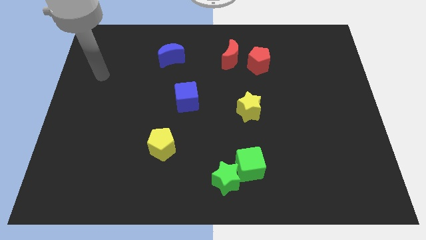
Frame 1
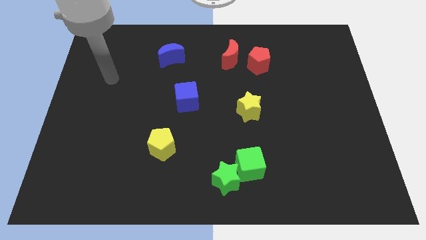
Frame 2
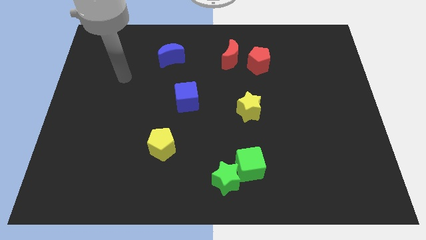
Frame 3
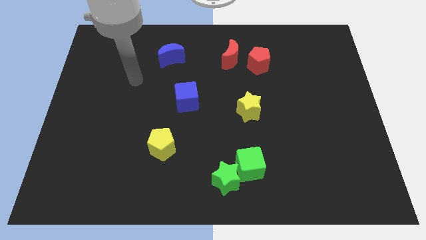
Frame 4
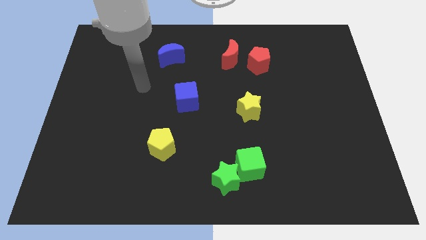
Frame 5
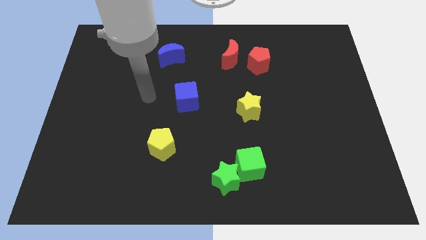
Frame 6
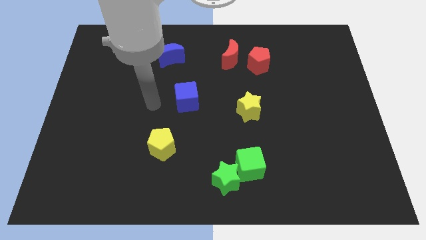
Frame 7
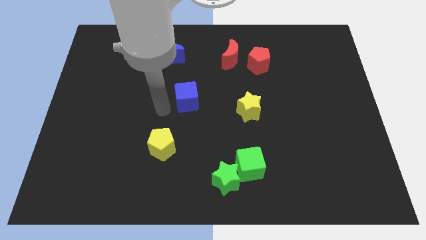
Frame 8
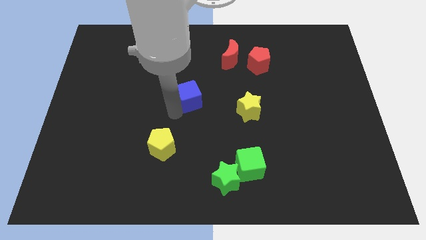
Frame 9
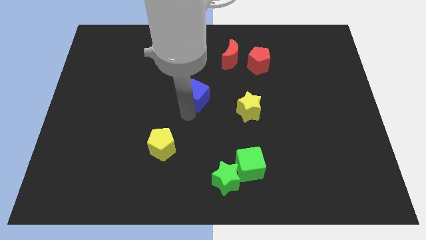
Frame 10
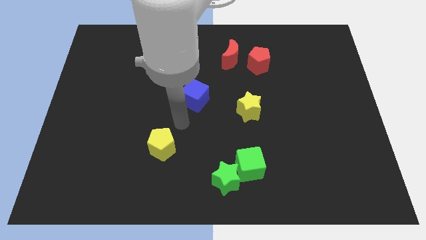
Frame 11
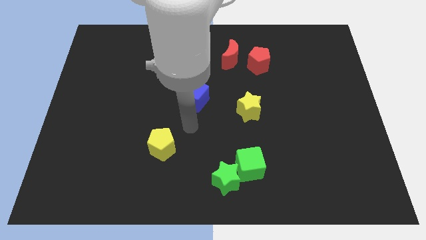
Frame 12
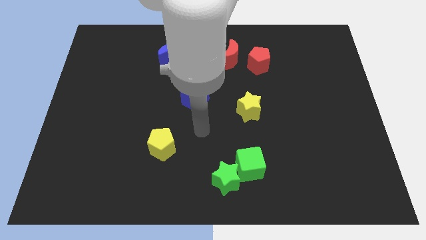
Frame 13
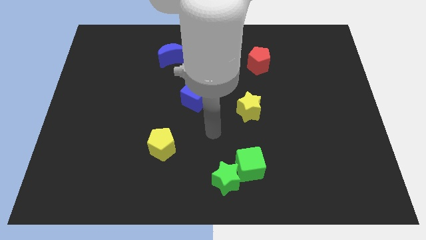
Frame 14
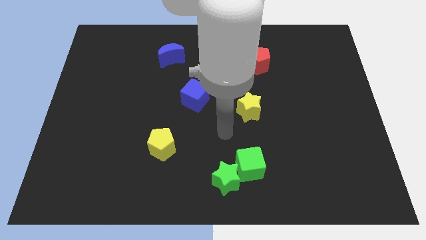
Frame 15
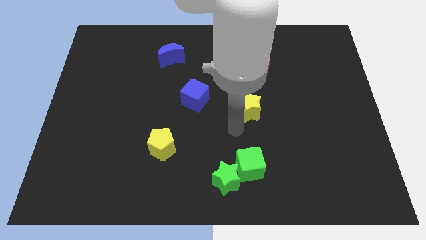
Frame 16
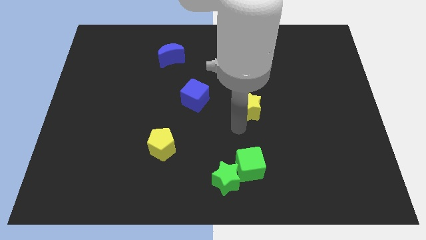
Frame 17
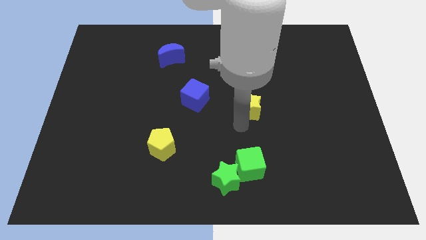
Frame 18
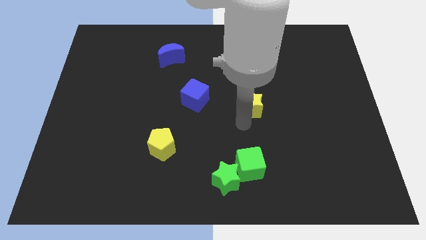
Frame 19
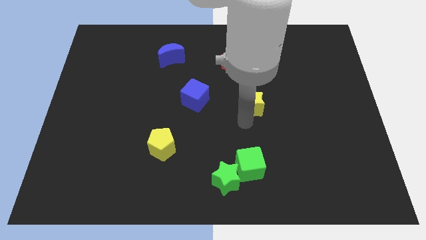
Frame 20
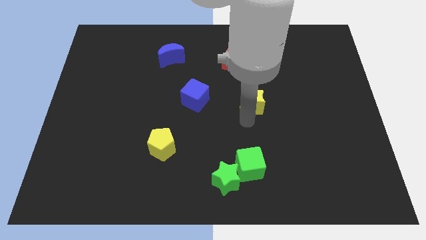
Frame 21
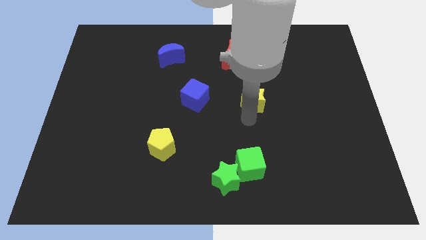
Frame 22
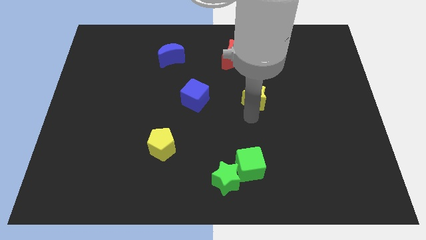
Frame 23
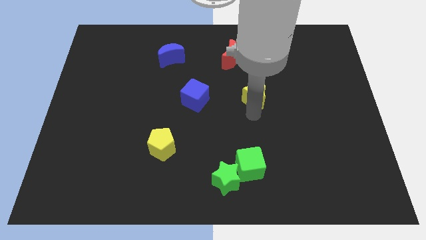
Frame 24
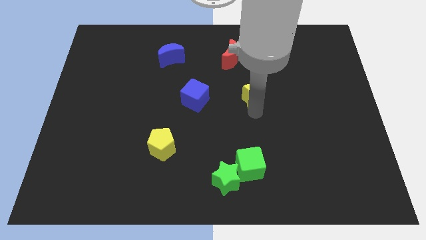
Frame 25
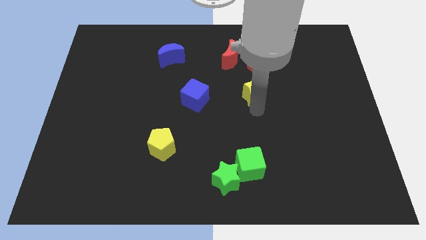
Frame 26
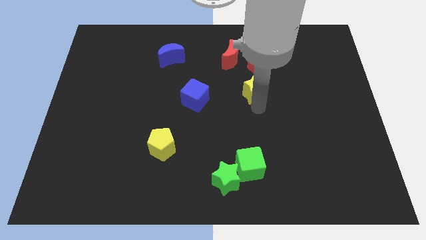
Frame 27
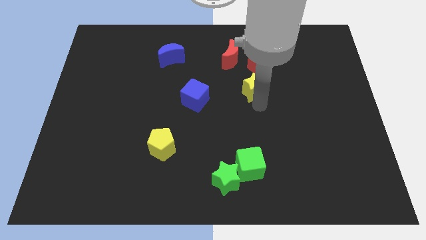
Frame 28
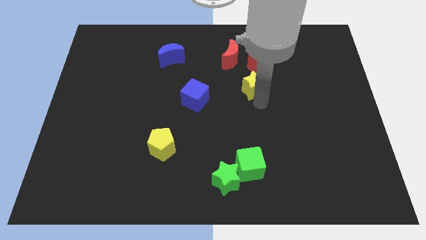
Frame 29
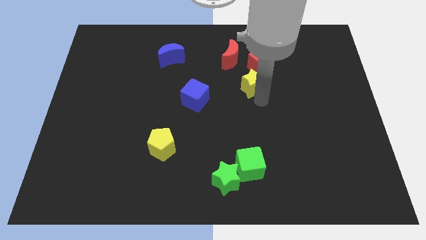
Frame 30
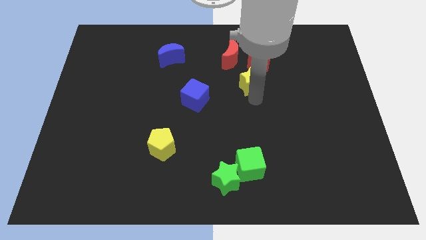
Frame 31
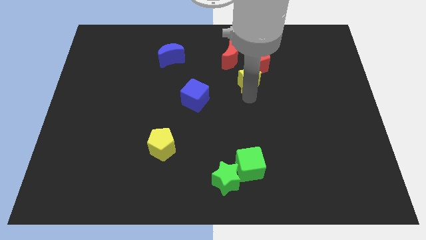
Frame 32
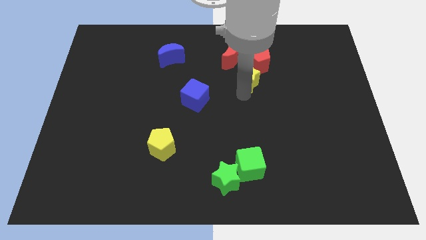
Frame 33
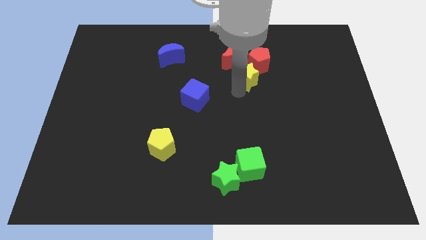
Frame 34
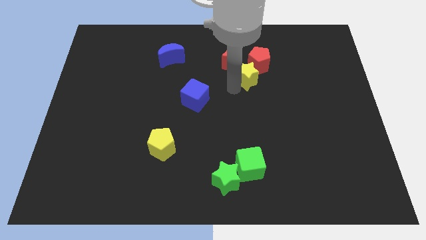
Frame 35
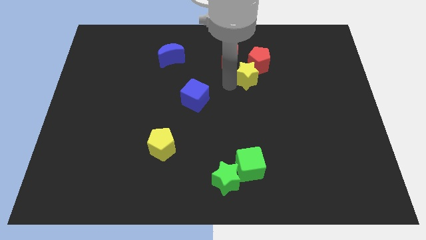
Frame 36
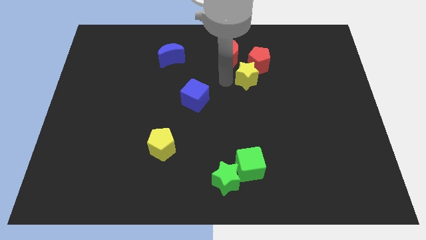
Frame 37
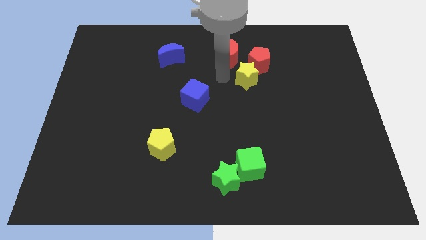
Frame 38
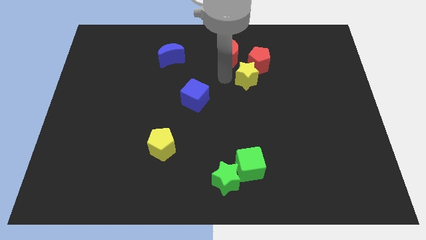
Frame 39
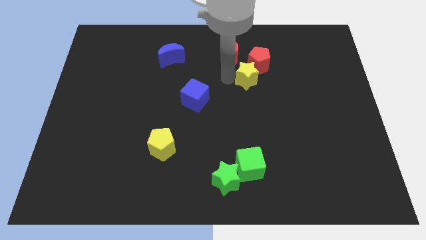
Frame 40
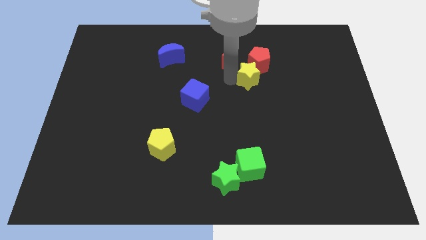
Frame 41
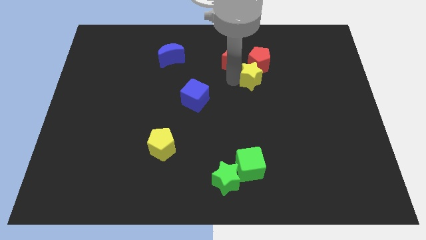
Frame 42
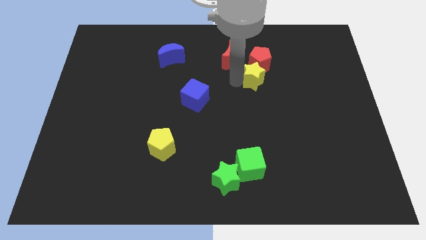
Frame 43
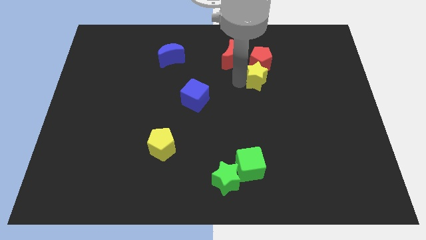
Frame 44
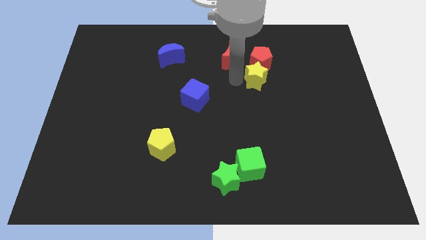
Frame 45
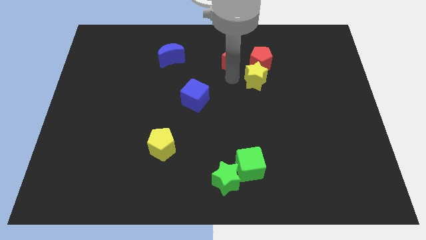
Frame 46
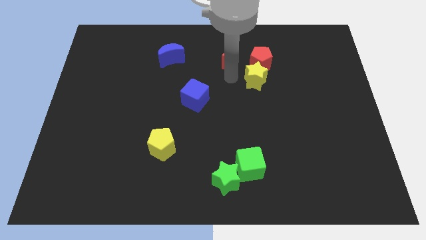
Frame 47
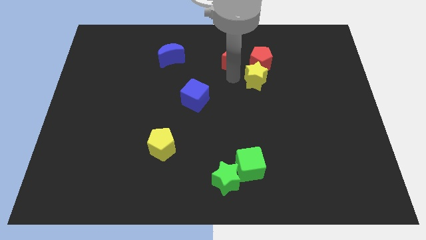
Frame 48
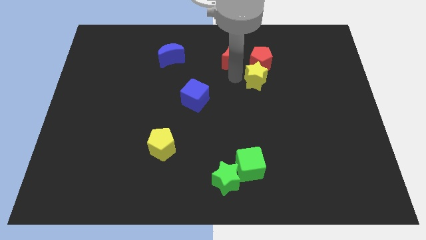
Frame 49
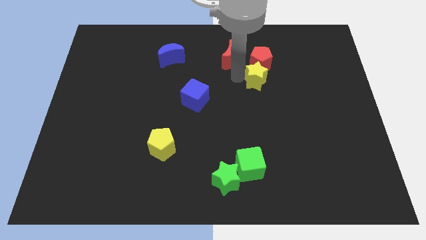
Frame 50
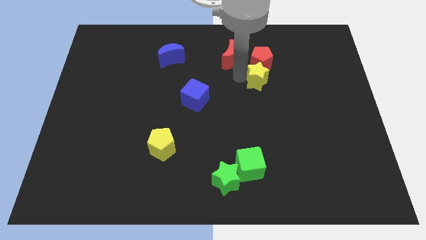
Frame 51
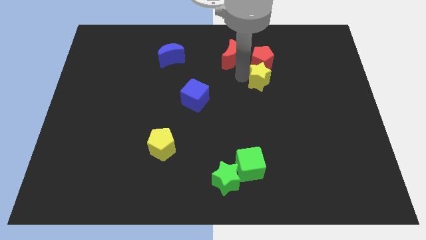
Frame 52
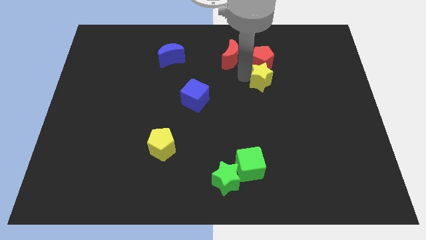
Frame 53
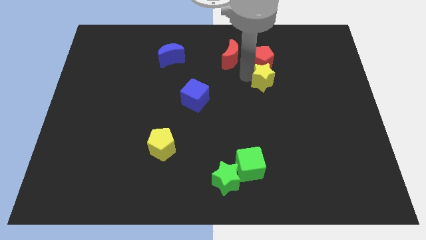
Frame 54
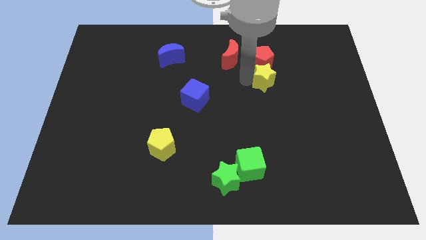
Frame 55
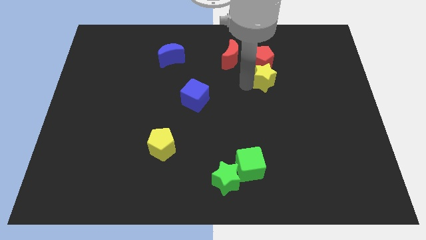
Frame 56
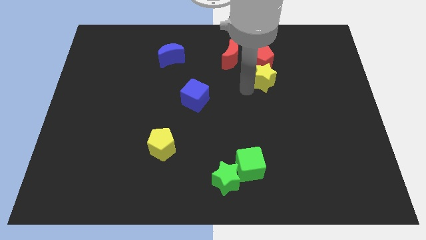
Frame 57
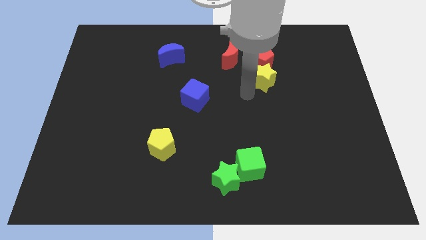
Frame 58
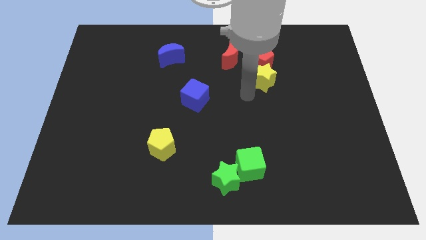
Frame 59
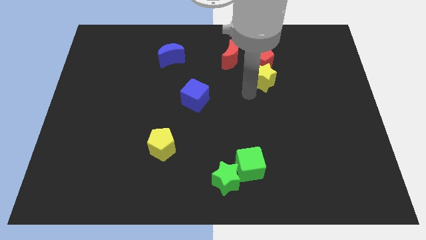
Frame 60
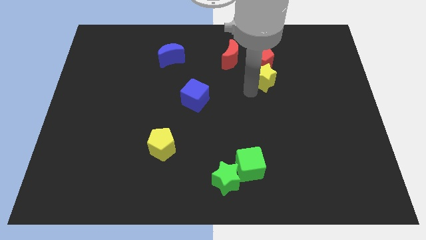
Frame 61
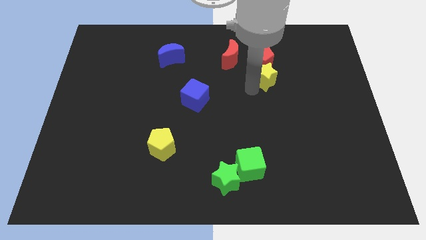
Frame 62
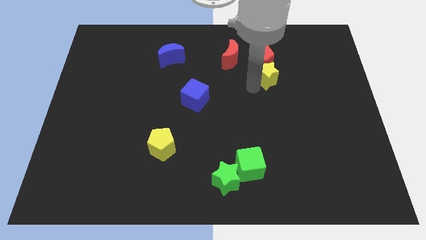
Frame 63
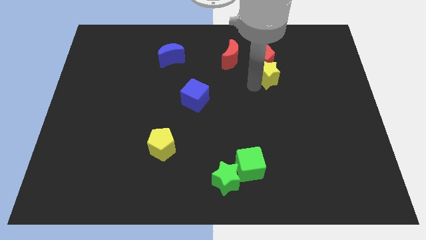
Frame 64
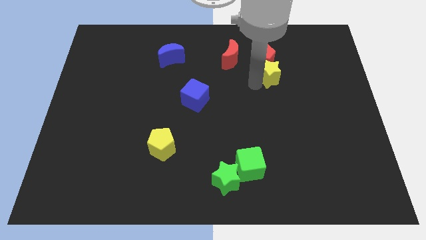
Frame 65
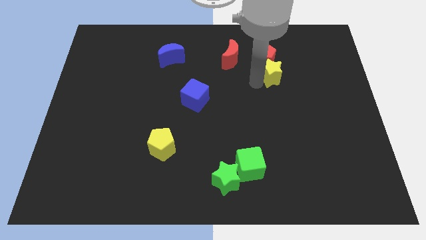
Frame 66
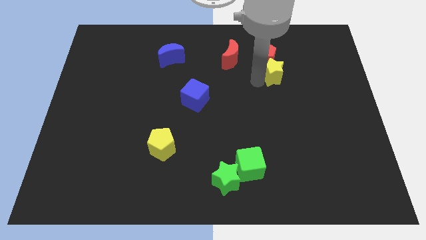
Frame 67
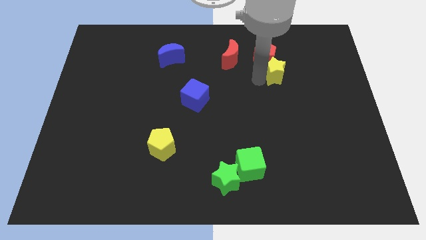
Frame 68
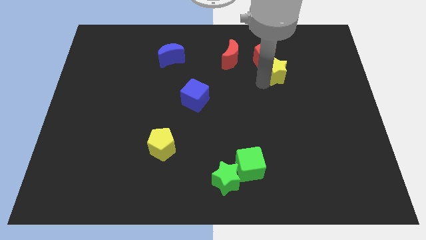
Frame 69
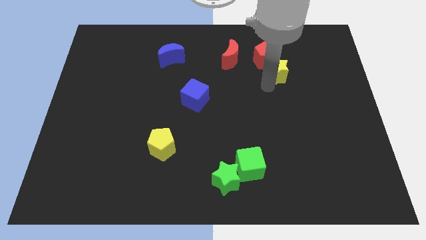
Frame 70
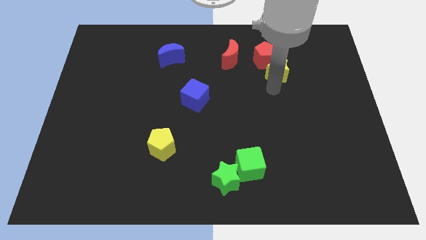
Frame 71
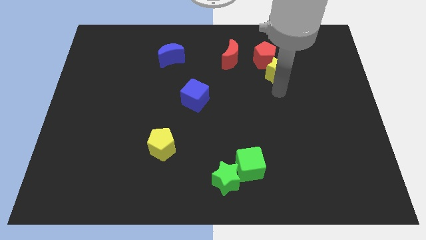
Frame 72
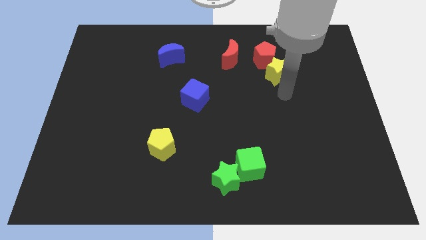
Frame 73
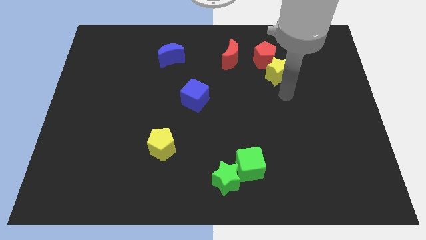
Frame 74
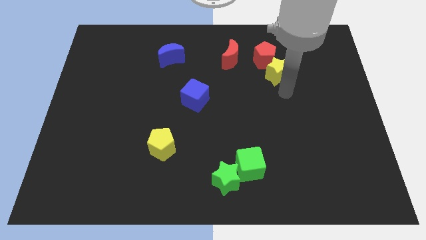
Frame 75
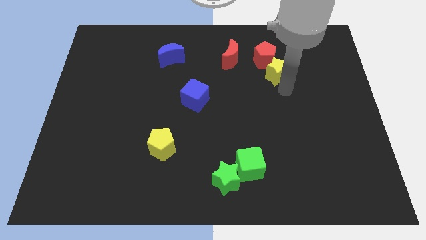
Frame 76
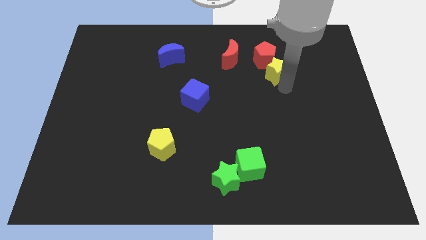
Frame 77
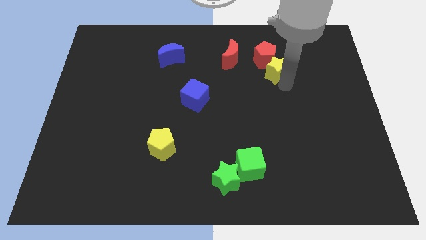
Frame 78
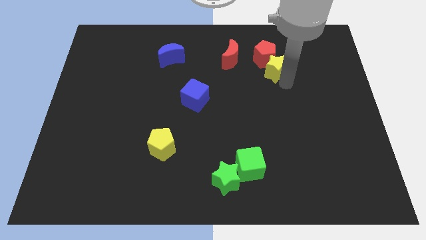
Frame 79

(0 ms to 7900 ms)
slide the yellow star to the right of the red moon
